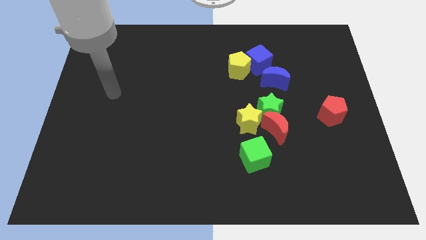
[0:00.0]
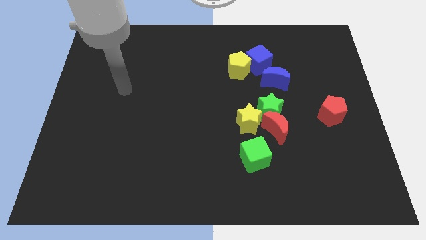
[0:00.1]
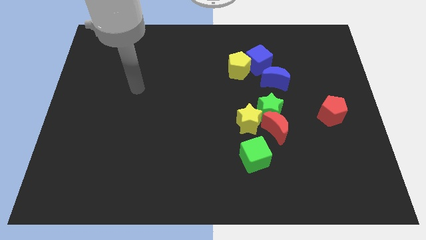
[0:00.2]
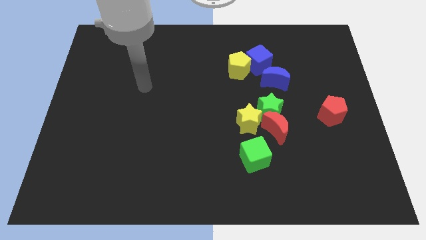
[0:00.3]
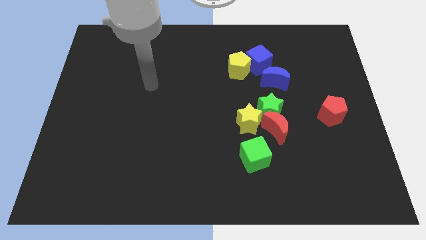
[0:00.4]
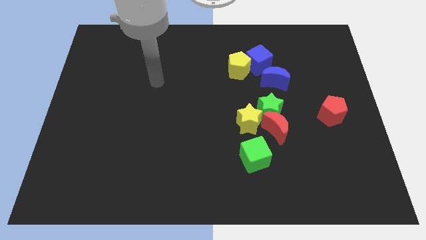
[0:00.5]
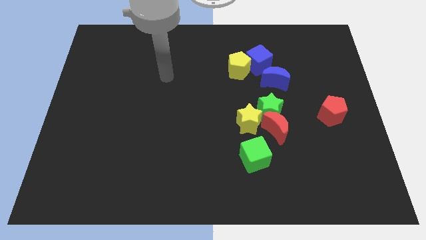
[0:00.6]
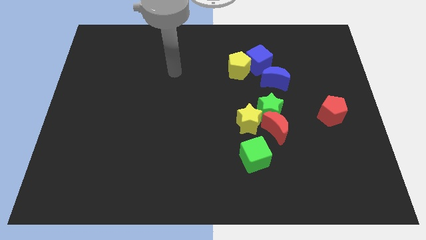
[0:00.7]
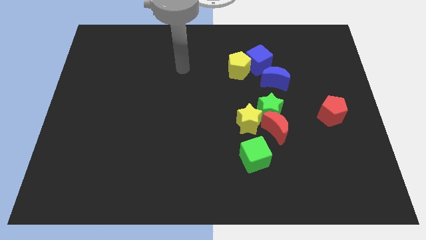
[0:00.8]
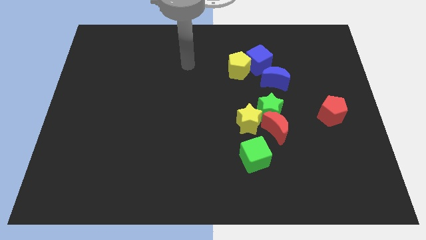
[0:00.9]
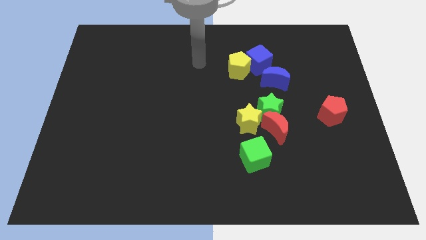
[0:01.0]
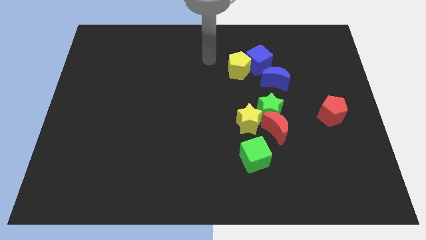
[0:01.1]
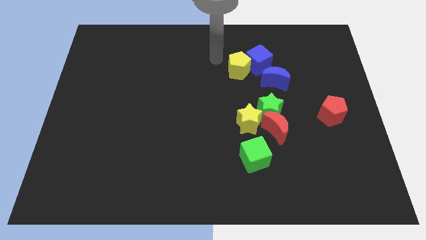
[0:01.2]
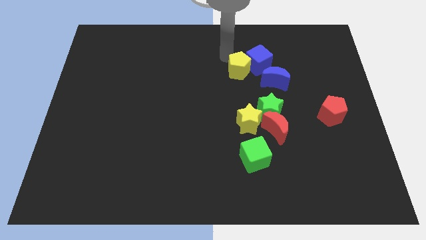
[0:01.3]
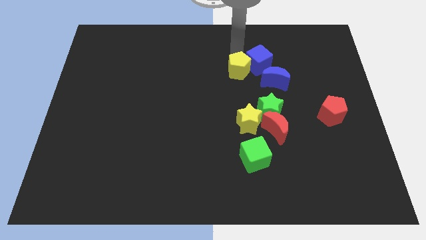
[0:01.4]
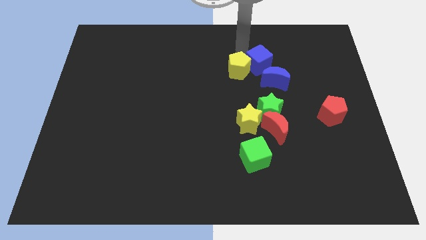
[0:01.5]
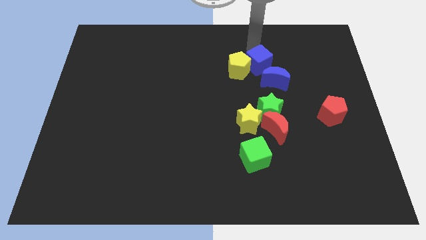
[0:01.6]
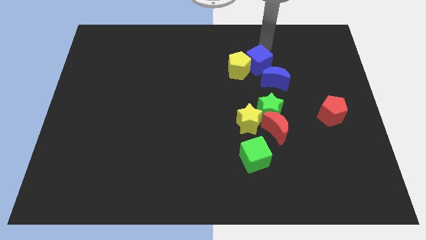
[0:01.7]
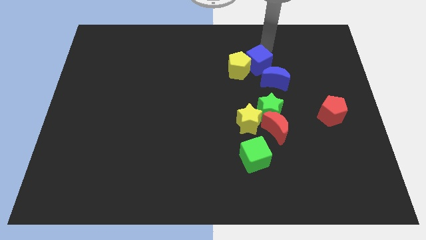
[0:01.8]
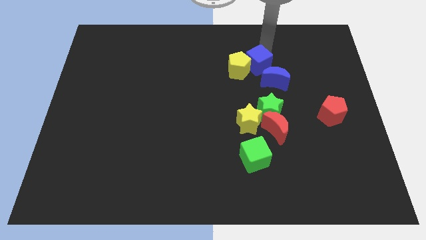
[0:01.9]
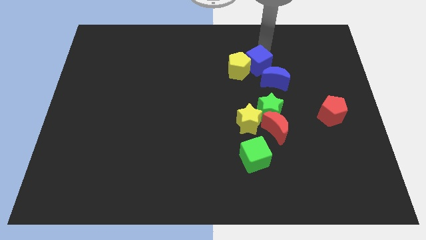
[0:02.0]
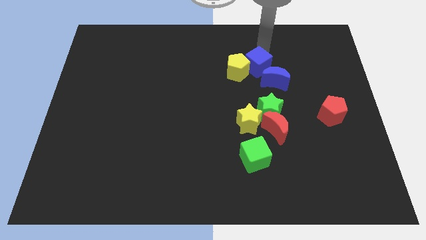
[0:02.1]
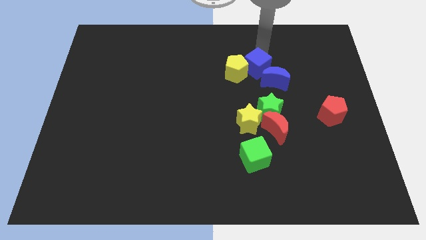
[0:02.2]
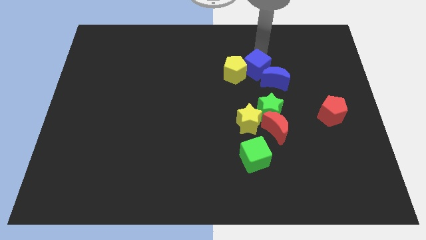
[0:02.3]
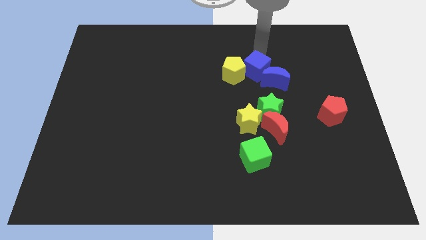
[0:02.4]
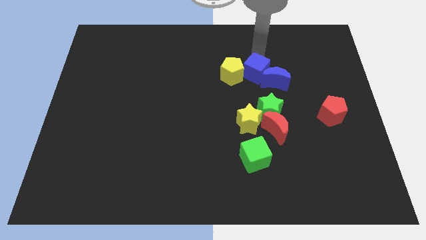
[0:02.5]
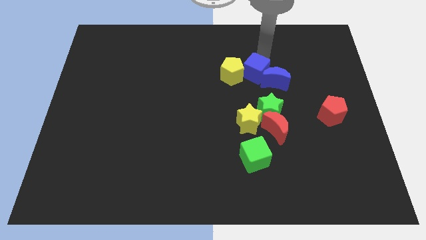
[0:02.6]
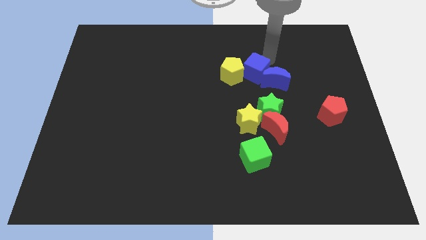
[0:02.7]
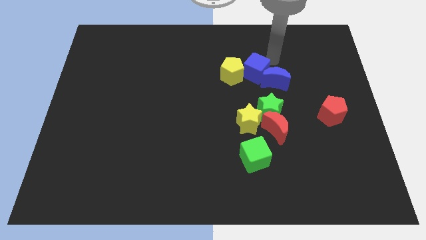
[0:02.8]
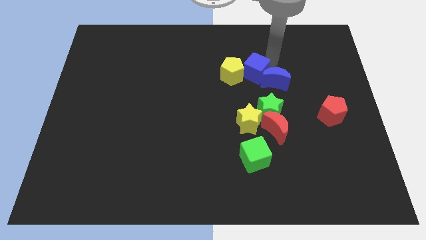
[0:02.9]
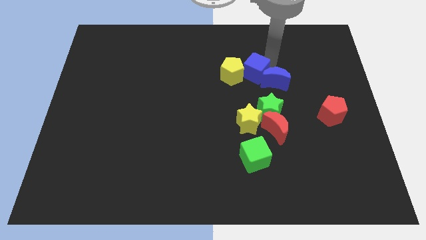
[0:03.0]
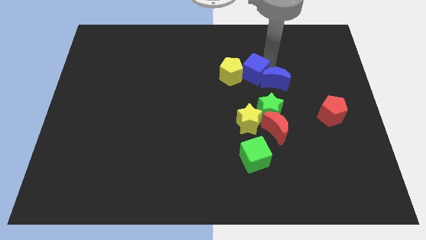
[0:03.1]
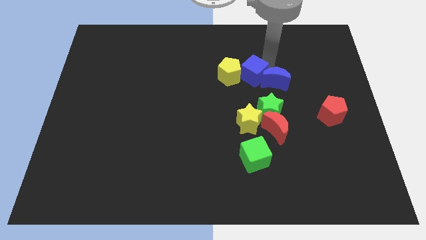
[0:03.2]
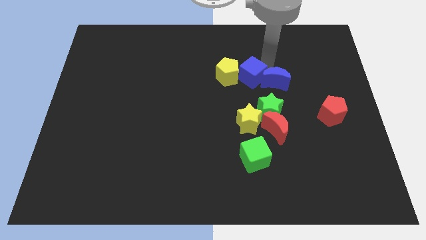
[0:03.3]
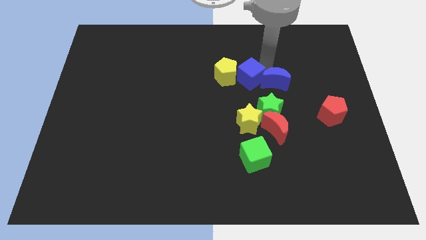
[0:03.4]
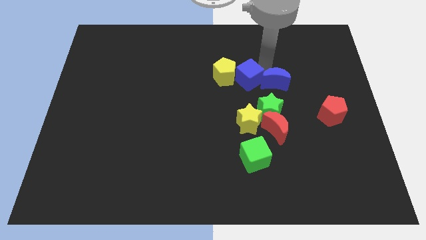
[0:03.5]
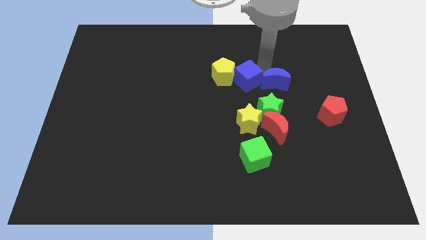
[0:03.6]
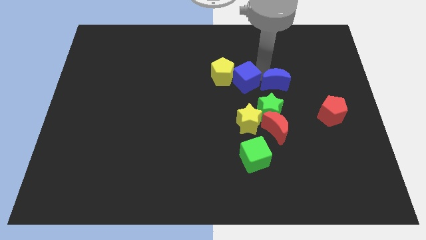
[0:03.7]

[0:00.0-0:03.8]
slightly slide the blue cube downwards and left

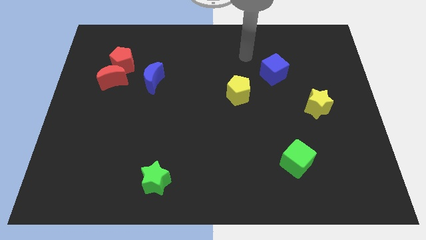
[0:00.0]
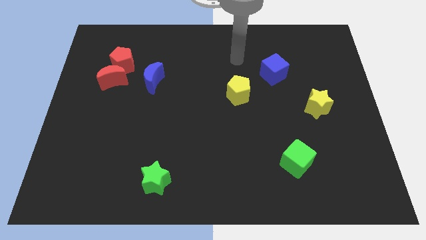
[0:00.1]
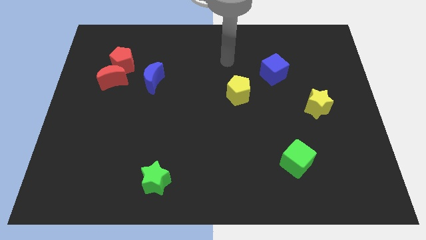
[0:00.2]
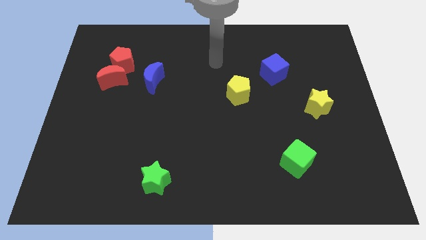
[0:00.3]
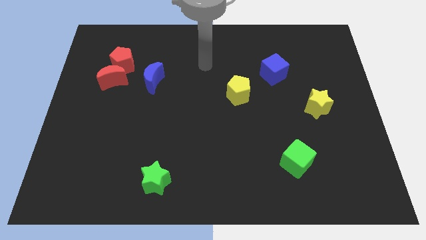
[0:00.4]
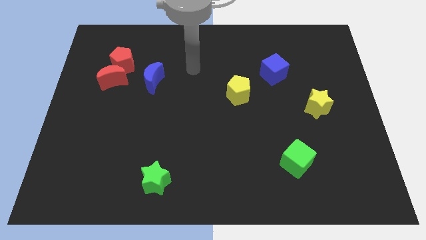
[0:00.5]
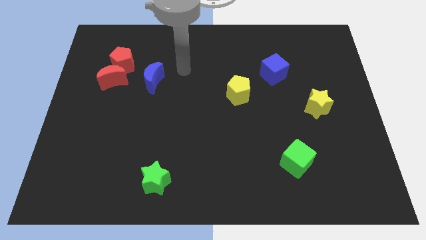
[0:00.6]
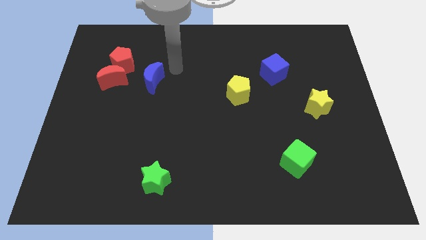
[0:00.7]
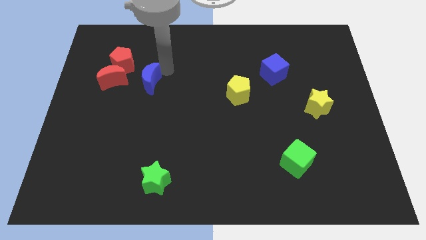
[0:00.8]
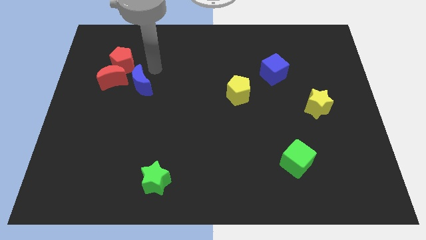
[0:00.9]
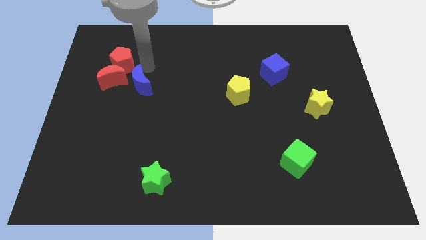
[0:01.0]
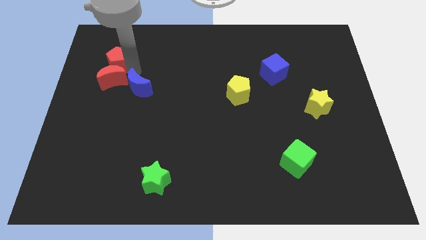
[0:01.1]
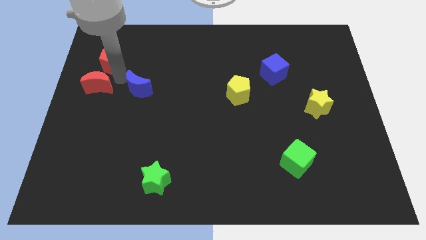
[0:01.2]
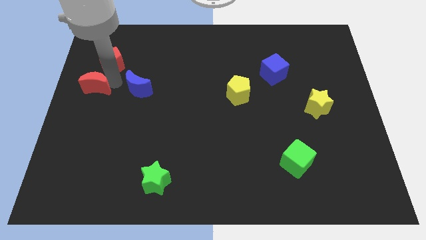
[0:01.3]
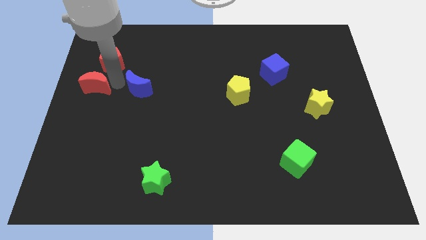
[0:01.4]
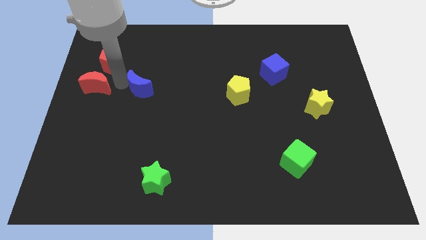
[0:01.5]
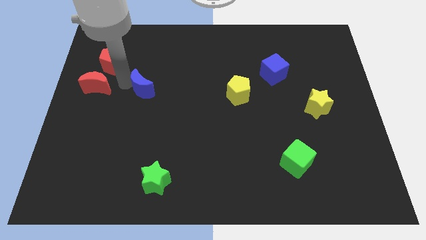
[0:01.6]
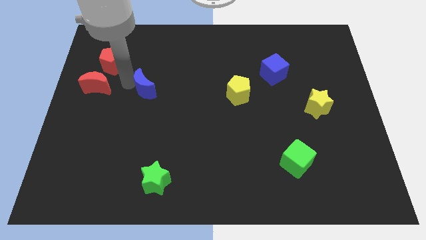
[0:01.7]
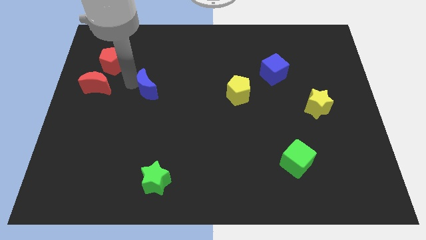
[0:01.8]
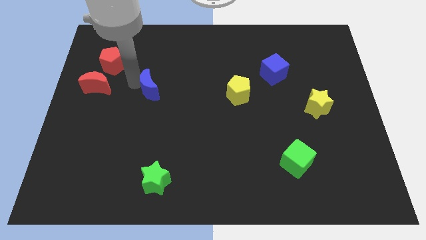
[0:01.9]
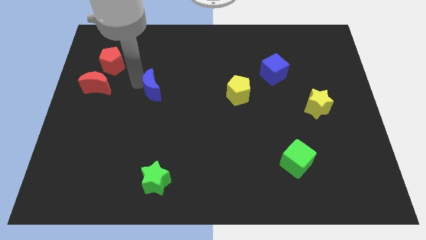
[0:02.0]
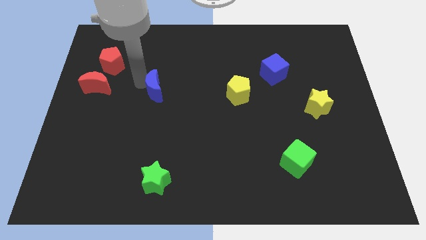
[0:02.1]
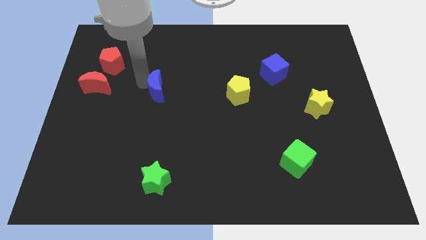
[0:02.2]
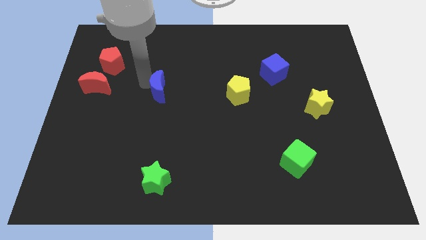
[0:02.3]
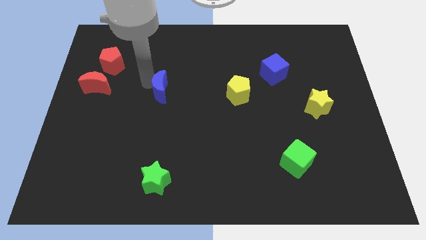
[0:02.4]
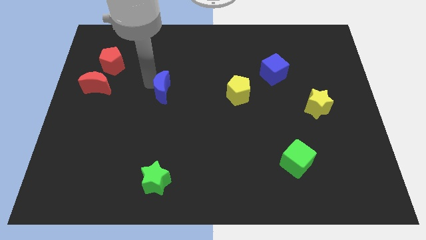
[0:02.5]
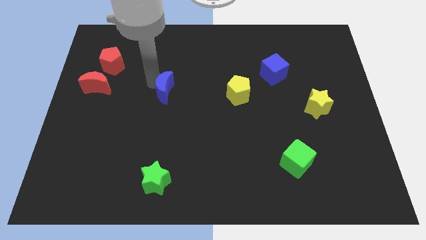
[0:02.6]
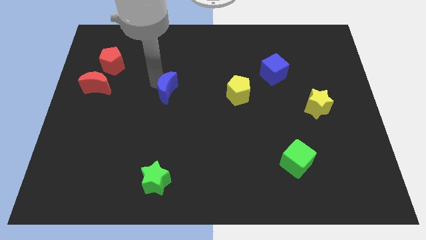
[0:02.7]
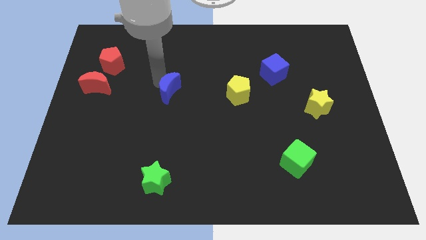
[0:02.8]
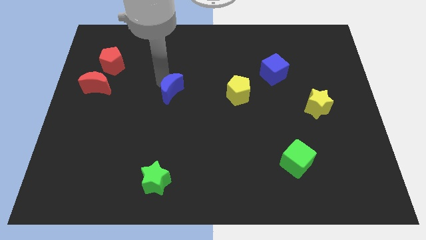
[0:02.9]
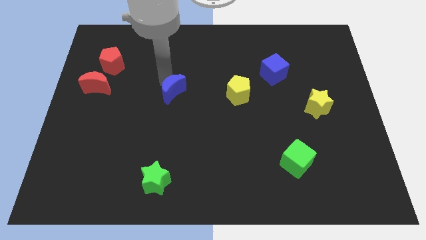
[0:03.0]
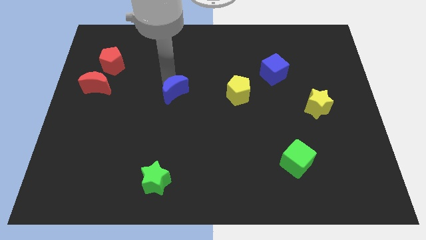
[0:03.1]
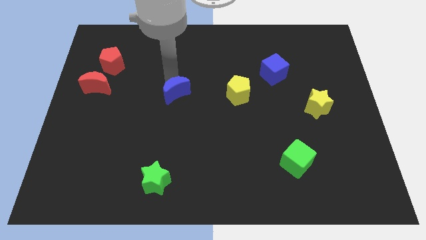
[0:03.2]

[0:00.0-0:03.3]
move the blue moon diagonally downwards and right a bit

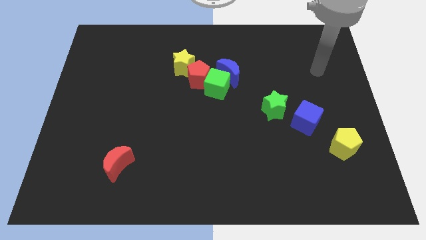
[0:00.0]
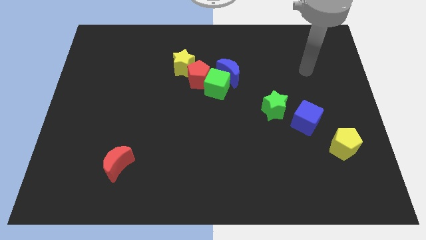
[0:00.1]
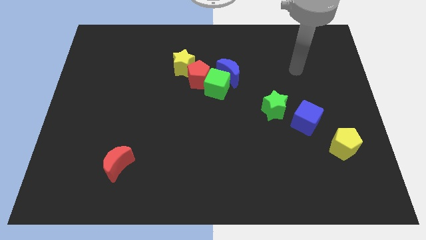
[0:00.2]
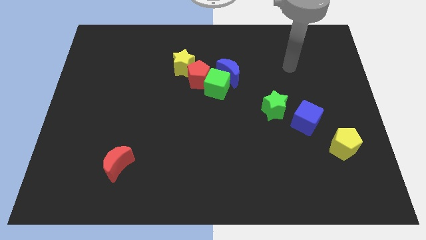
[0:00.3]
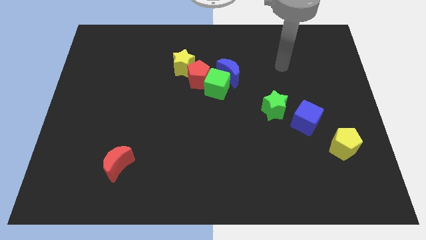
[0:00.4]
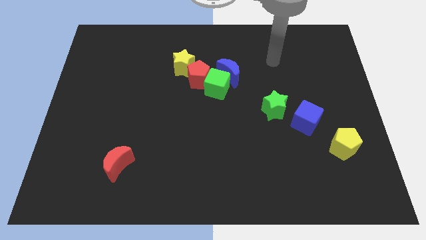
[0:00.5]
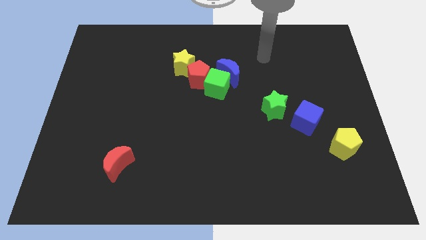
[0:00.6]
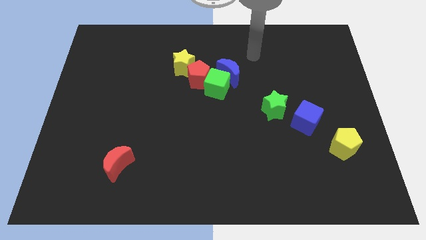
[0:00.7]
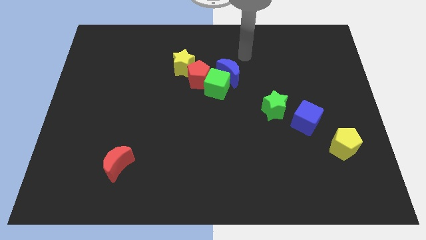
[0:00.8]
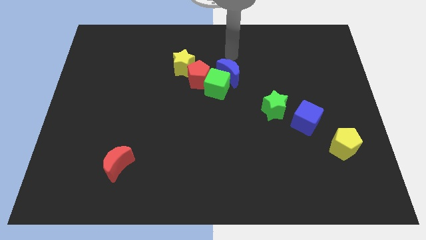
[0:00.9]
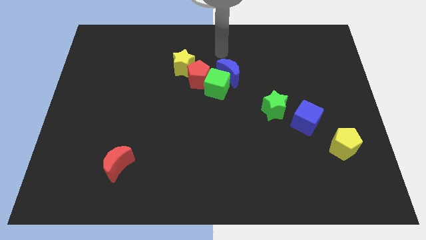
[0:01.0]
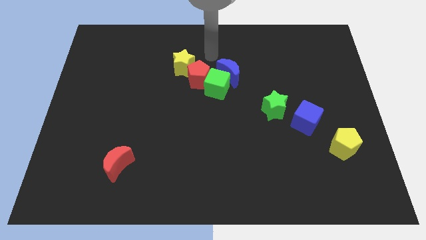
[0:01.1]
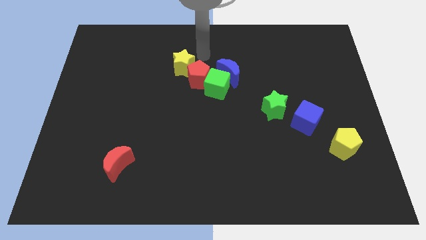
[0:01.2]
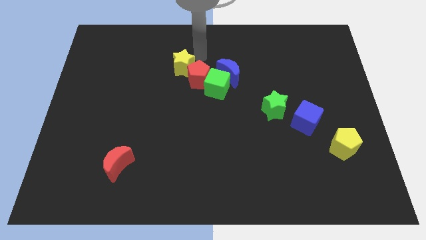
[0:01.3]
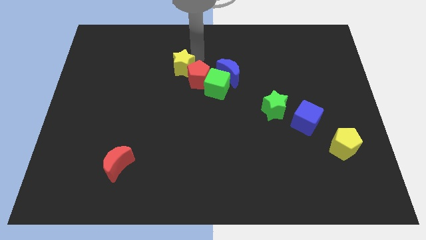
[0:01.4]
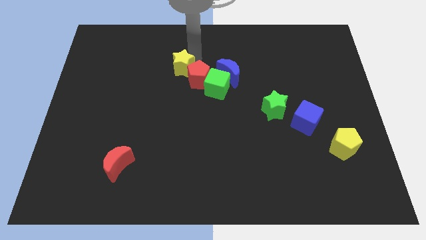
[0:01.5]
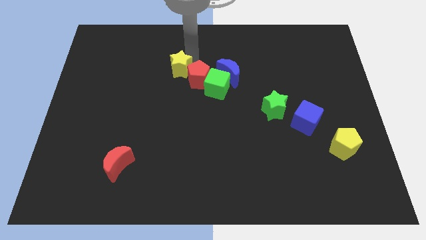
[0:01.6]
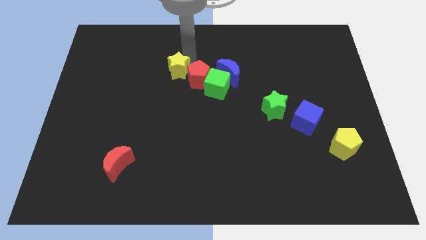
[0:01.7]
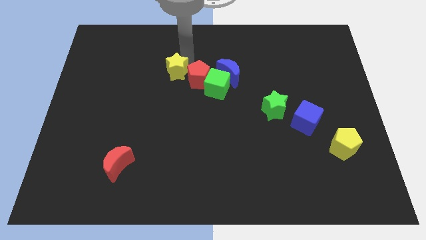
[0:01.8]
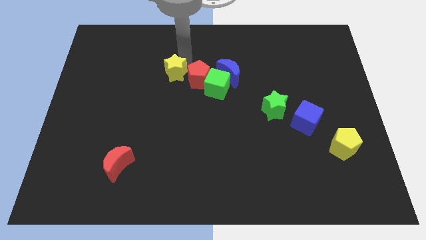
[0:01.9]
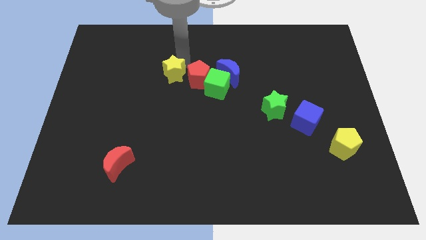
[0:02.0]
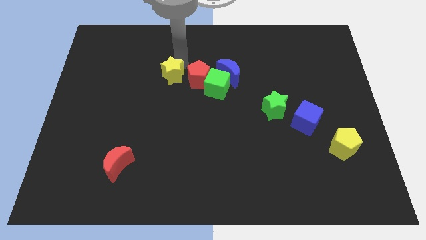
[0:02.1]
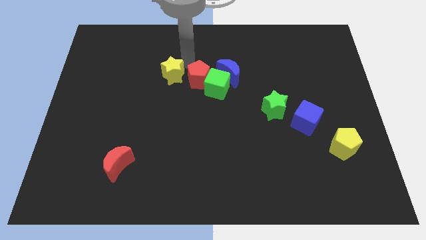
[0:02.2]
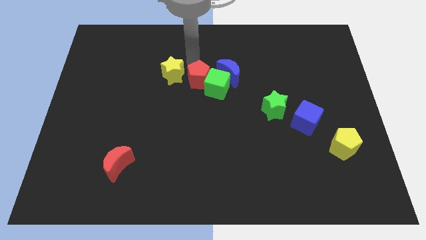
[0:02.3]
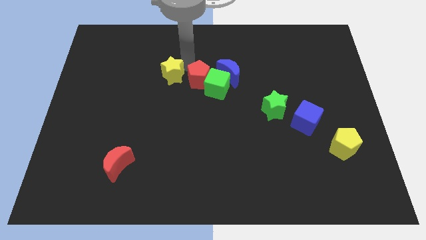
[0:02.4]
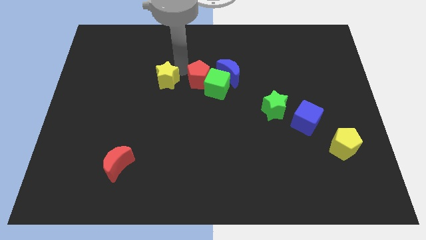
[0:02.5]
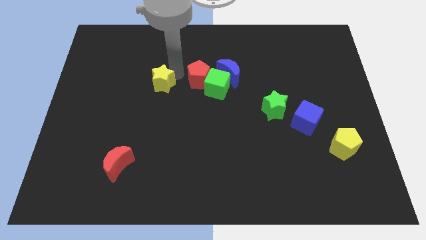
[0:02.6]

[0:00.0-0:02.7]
push the yellow star somewhat diagonally downwards and to the left
